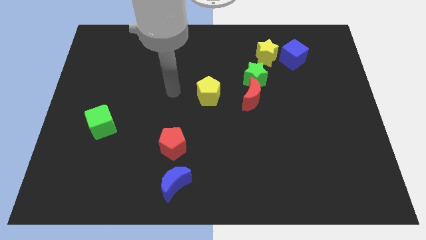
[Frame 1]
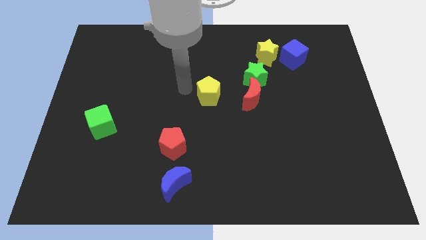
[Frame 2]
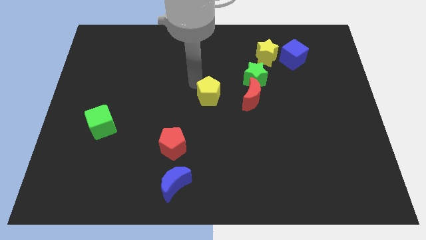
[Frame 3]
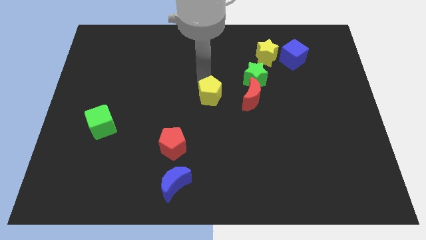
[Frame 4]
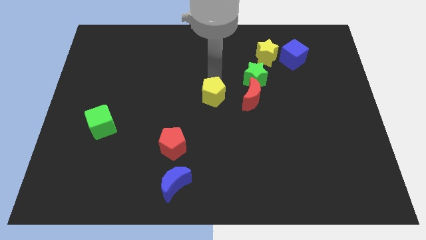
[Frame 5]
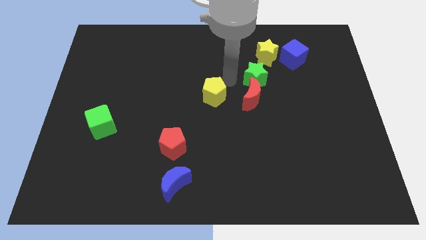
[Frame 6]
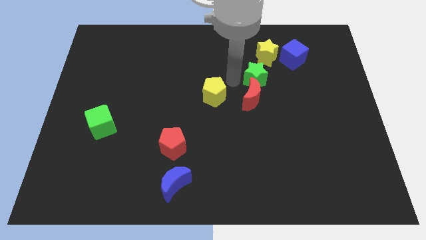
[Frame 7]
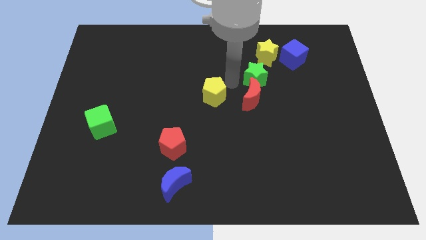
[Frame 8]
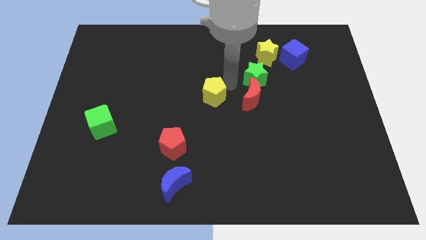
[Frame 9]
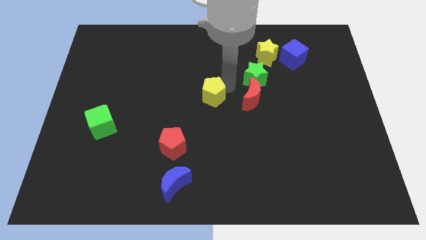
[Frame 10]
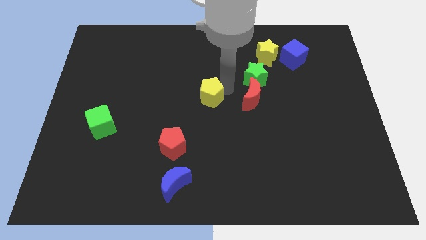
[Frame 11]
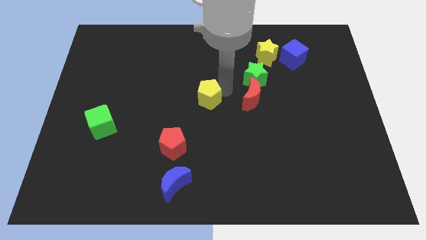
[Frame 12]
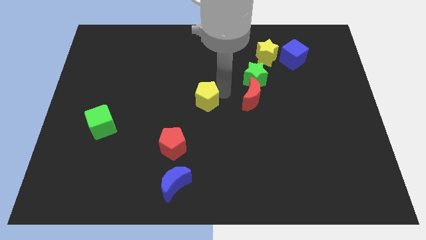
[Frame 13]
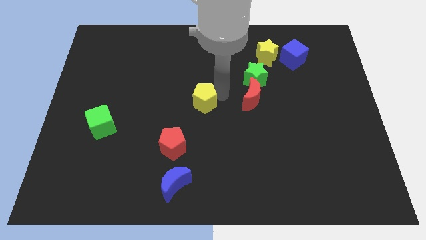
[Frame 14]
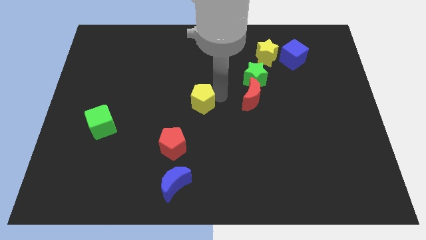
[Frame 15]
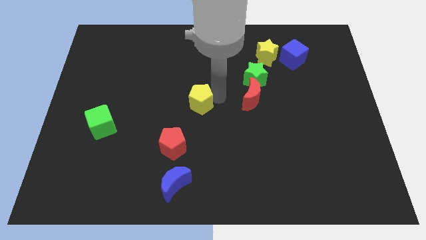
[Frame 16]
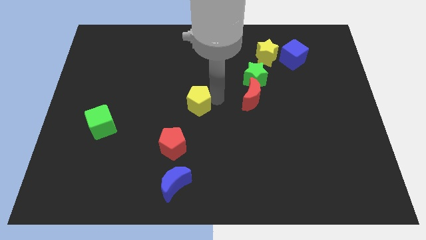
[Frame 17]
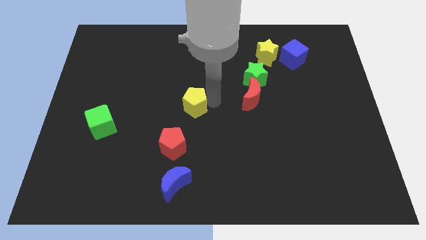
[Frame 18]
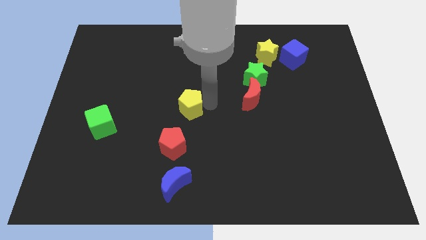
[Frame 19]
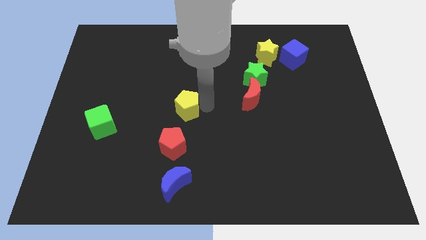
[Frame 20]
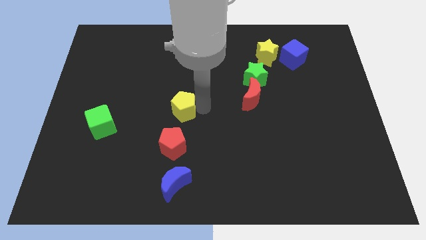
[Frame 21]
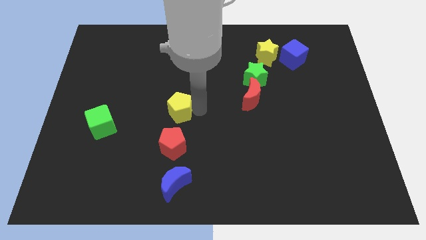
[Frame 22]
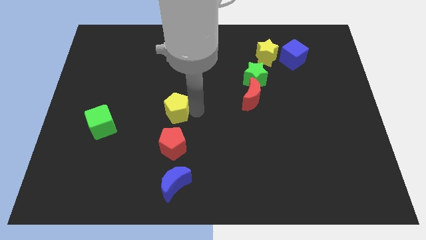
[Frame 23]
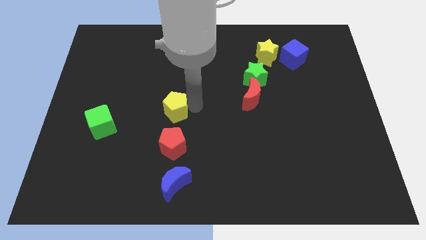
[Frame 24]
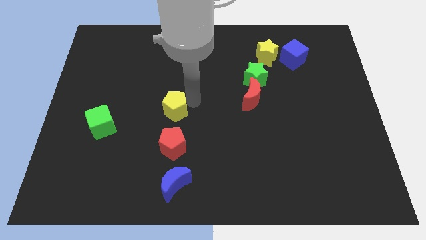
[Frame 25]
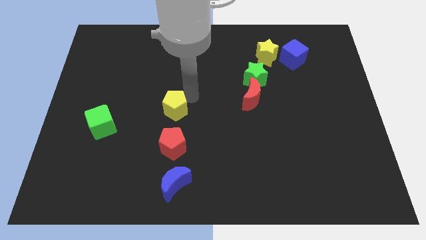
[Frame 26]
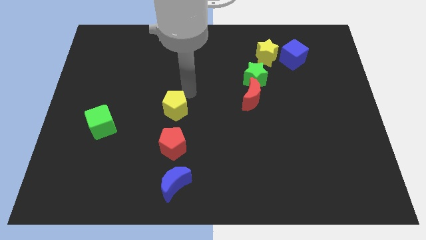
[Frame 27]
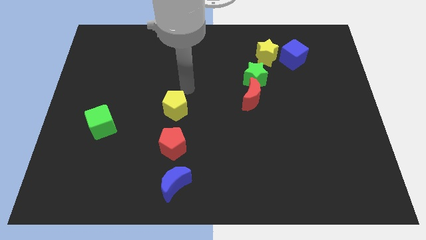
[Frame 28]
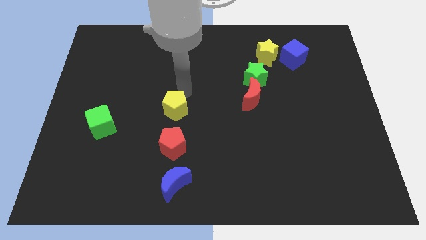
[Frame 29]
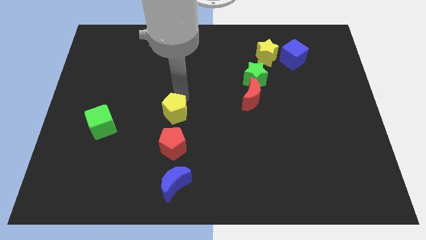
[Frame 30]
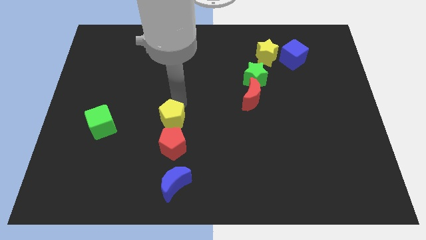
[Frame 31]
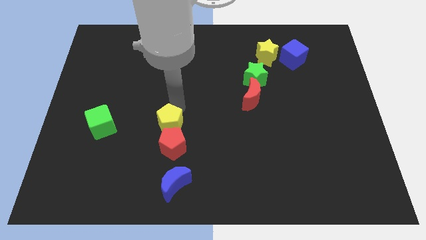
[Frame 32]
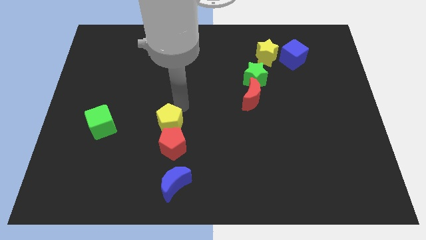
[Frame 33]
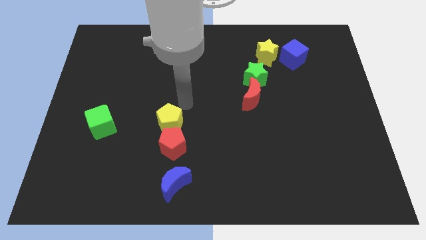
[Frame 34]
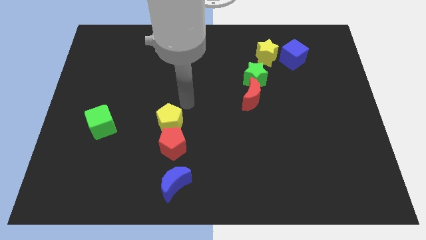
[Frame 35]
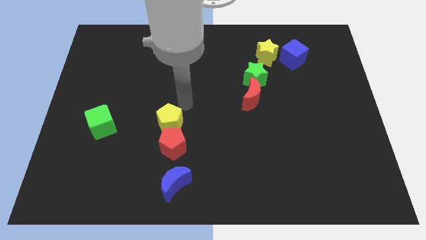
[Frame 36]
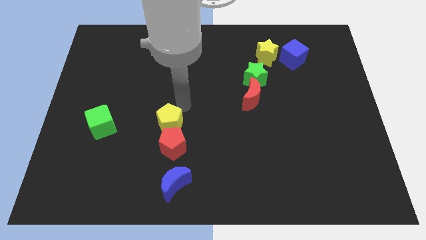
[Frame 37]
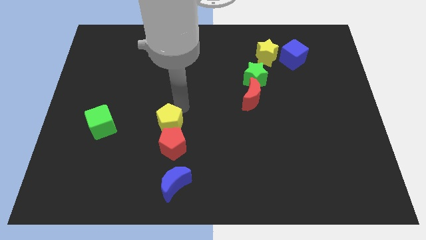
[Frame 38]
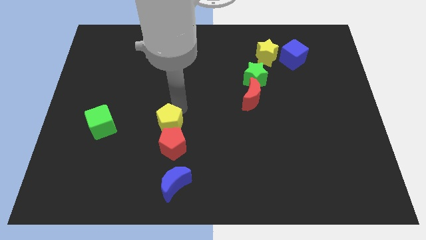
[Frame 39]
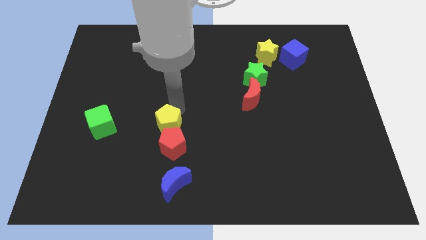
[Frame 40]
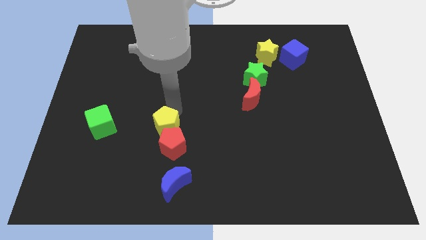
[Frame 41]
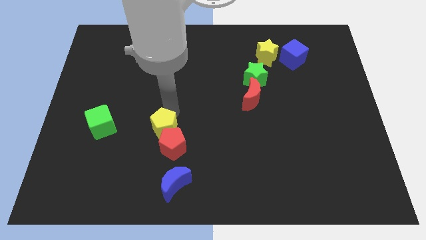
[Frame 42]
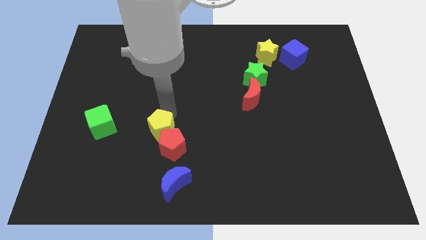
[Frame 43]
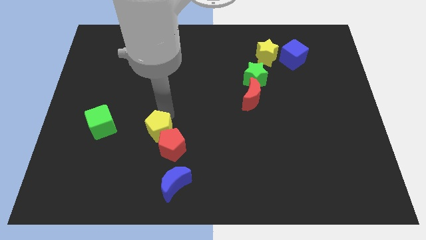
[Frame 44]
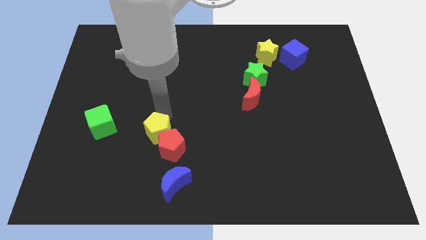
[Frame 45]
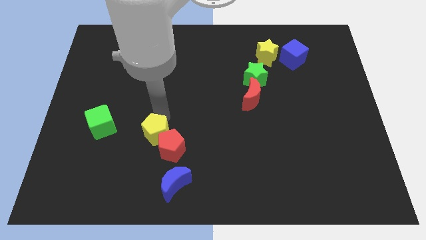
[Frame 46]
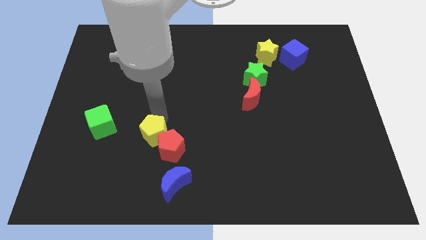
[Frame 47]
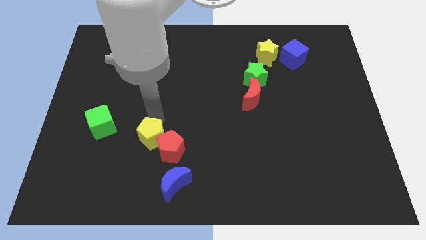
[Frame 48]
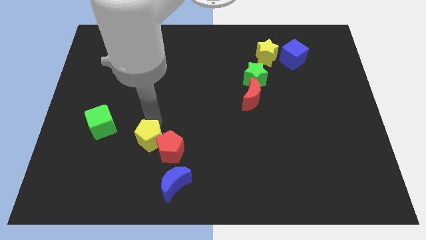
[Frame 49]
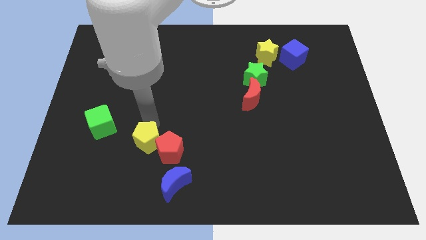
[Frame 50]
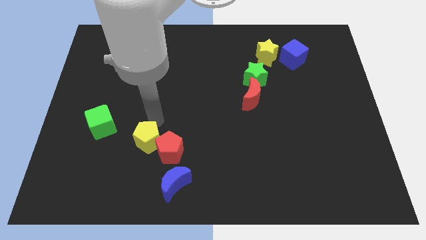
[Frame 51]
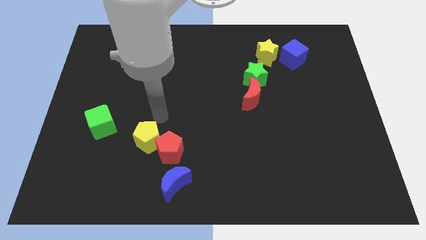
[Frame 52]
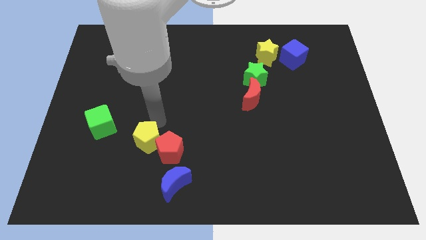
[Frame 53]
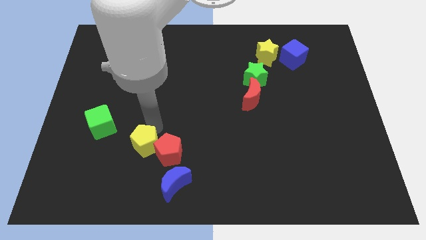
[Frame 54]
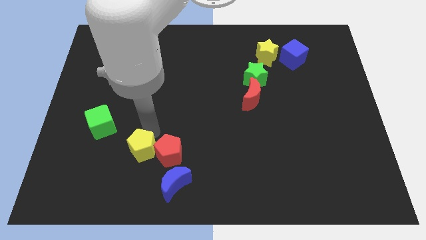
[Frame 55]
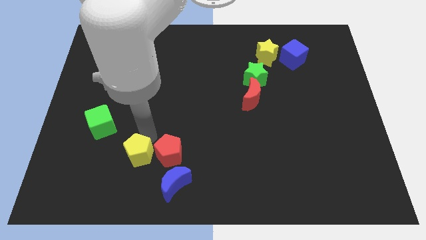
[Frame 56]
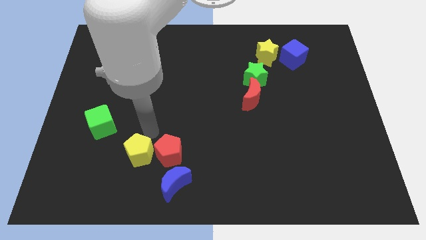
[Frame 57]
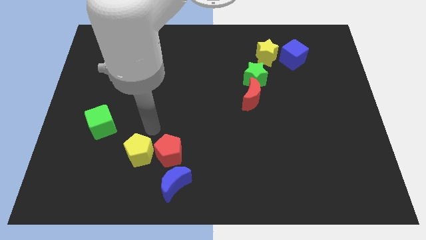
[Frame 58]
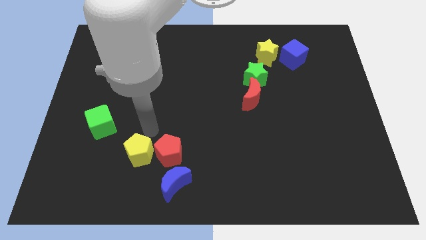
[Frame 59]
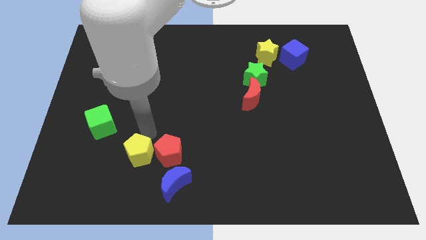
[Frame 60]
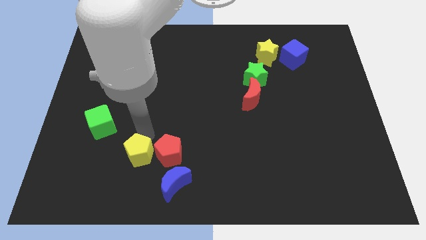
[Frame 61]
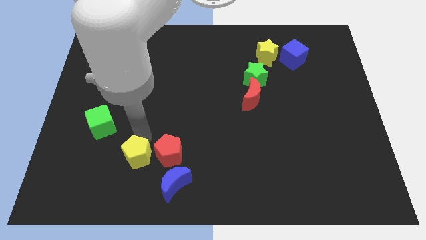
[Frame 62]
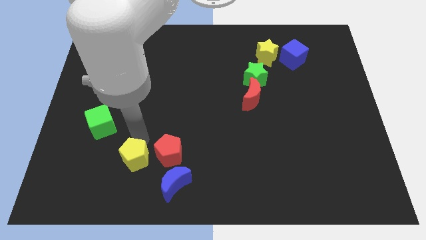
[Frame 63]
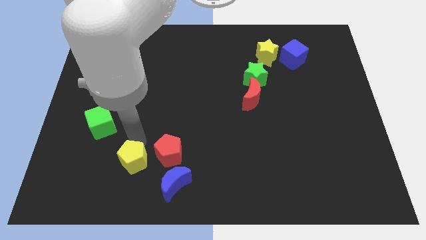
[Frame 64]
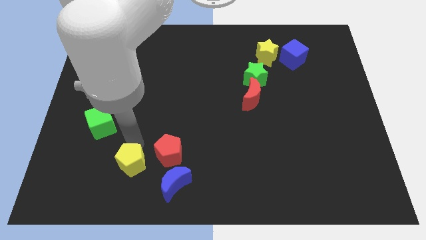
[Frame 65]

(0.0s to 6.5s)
put the yellow pentagon to the left of the blue moon

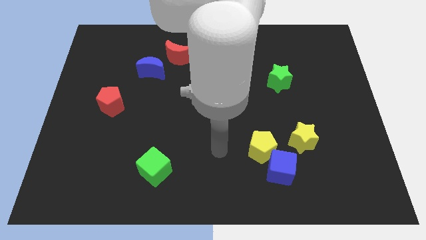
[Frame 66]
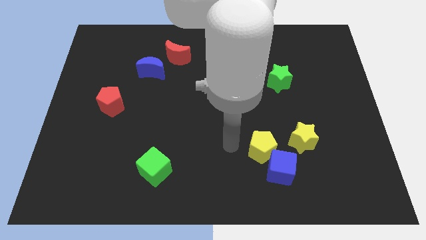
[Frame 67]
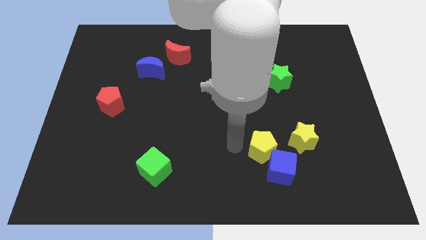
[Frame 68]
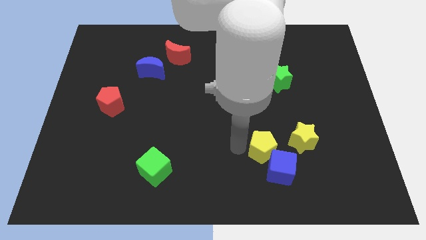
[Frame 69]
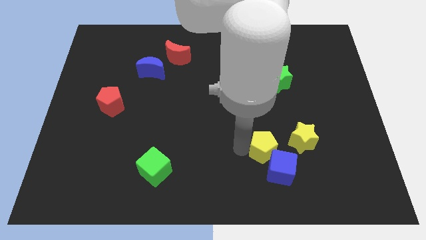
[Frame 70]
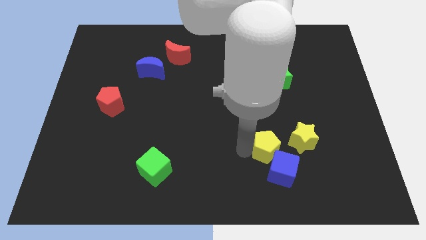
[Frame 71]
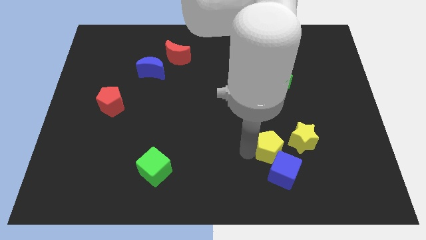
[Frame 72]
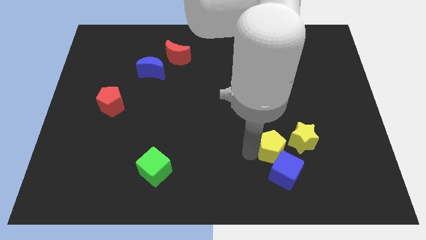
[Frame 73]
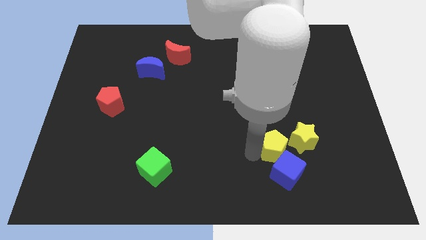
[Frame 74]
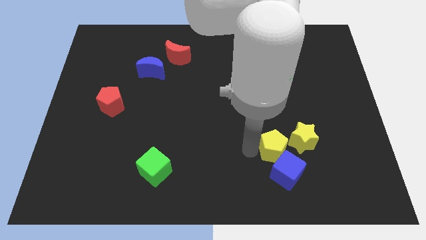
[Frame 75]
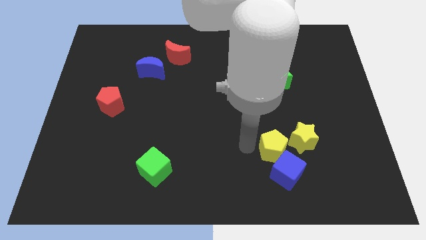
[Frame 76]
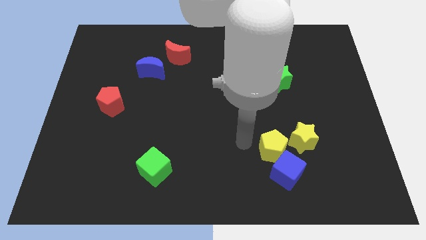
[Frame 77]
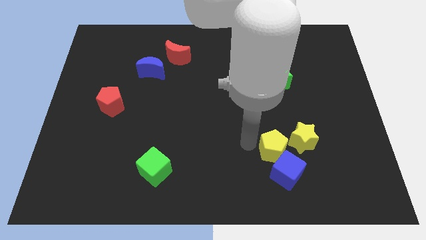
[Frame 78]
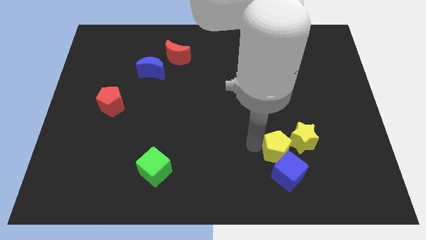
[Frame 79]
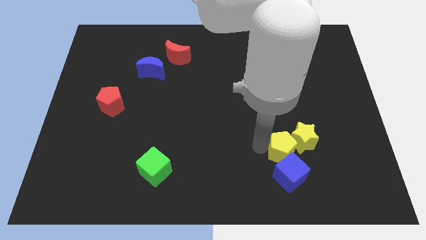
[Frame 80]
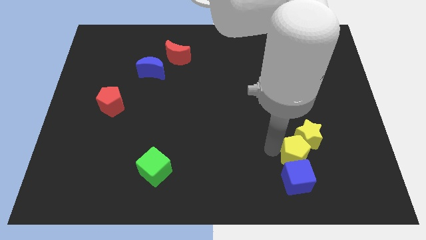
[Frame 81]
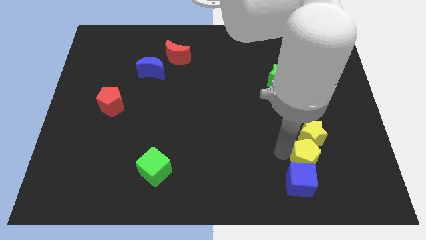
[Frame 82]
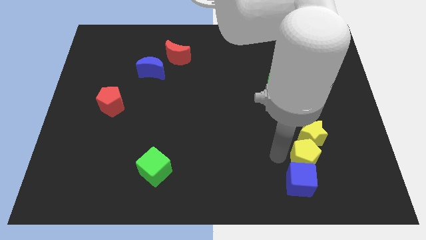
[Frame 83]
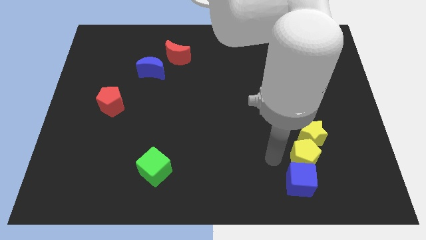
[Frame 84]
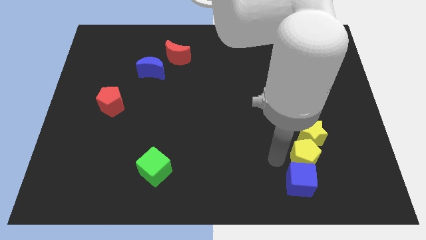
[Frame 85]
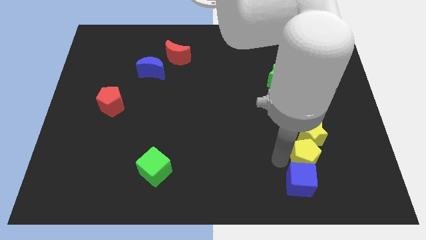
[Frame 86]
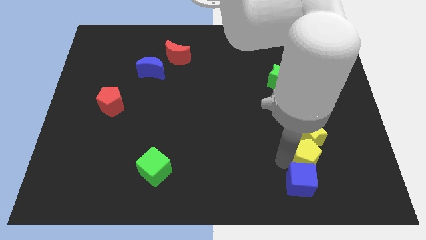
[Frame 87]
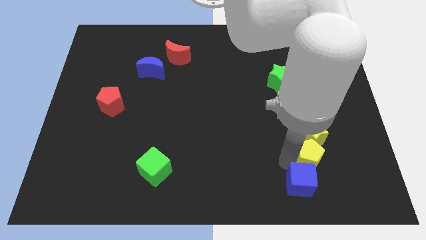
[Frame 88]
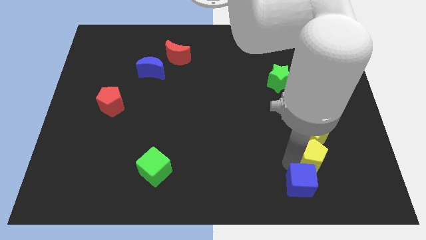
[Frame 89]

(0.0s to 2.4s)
slide the yellow pentagon to the bottom right of the yellow star
